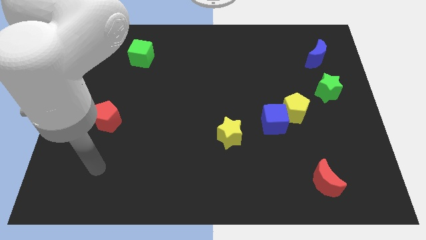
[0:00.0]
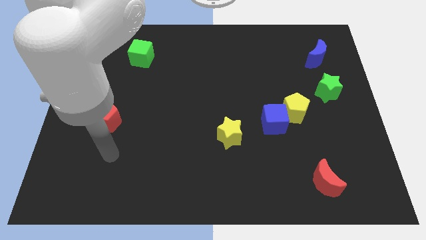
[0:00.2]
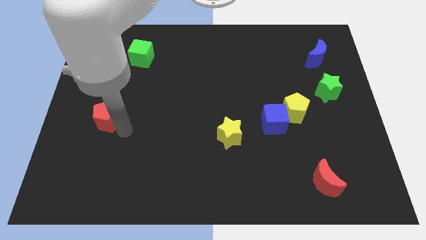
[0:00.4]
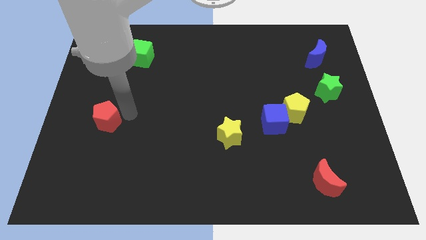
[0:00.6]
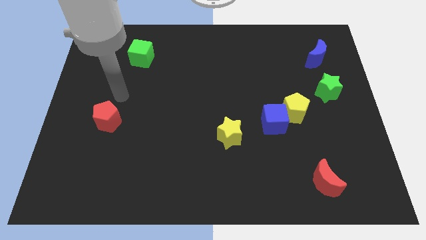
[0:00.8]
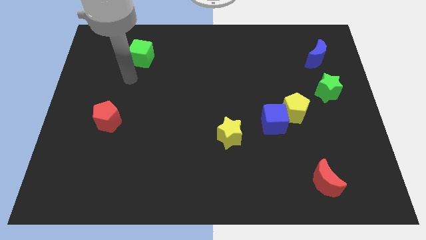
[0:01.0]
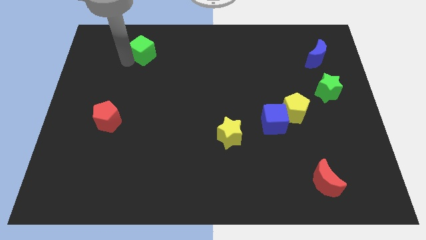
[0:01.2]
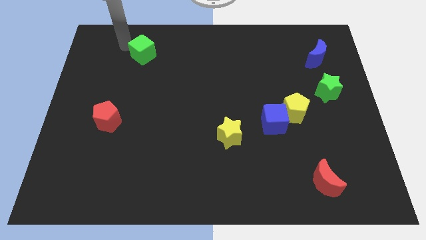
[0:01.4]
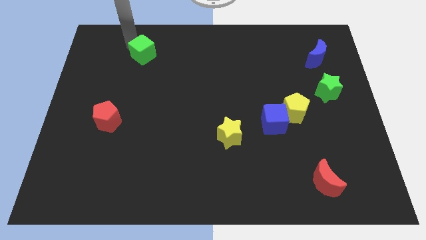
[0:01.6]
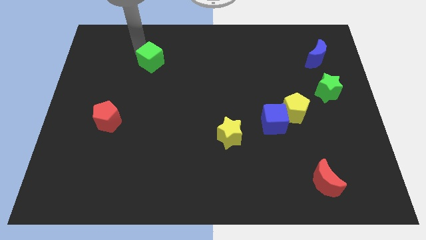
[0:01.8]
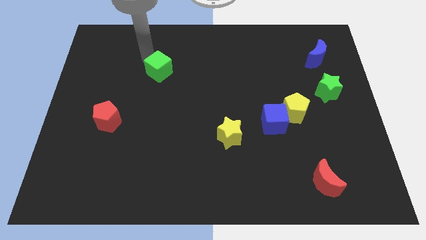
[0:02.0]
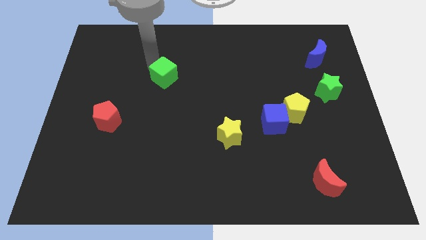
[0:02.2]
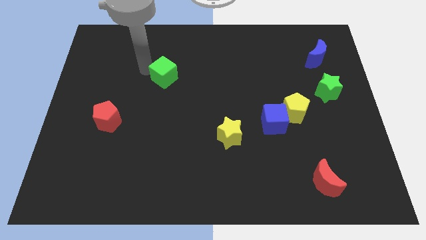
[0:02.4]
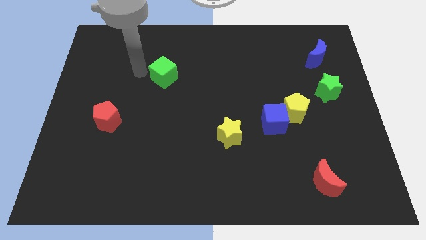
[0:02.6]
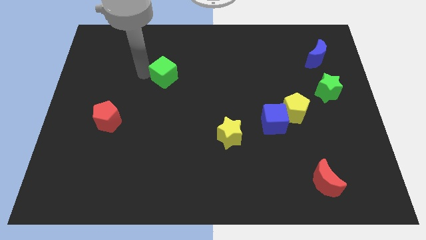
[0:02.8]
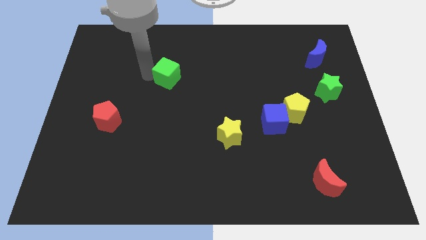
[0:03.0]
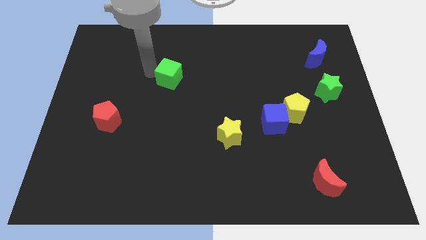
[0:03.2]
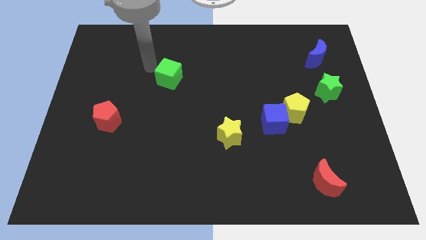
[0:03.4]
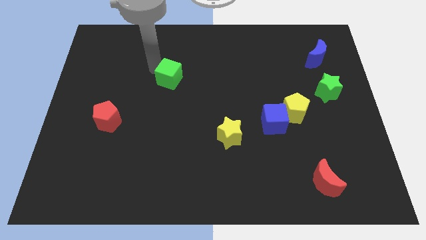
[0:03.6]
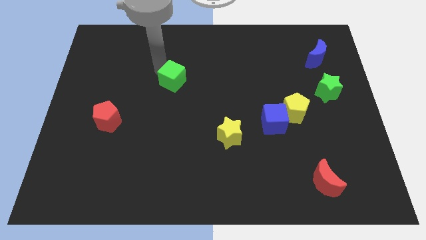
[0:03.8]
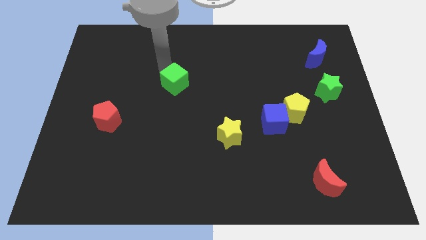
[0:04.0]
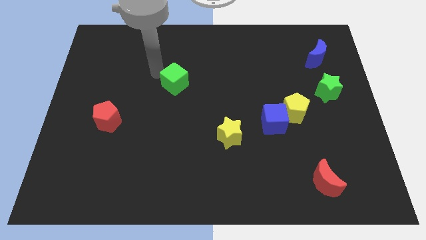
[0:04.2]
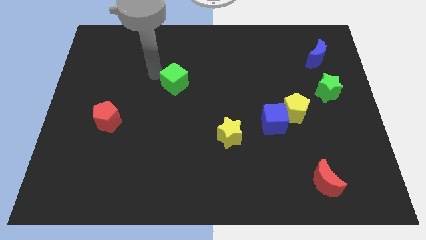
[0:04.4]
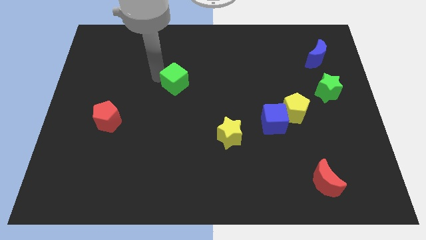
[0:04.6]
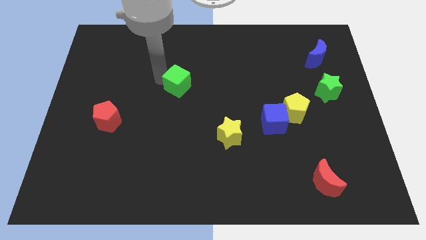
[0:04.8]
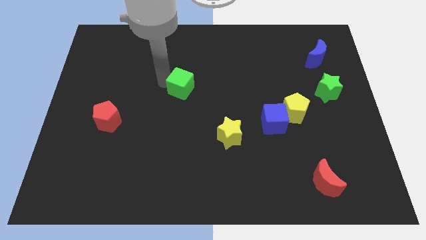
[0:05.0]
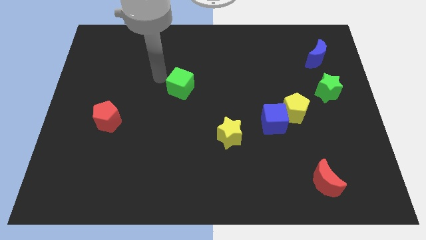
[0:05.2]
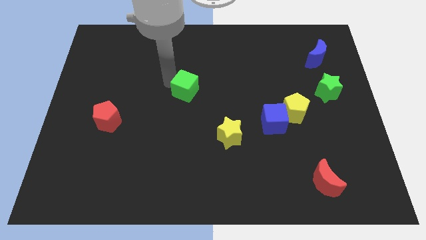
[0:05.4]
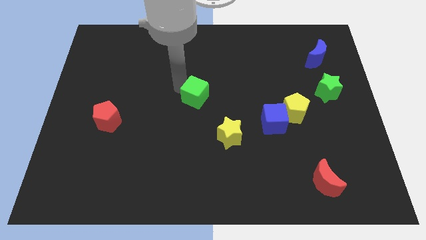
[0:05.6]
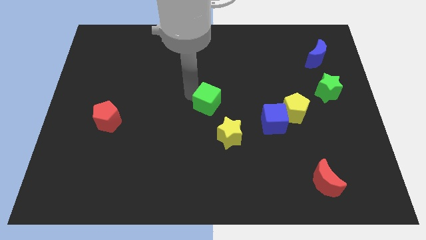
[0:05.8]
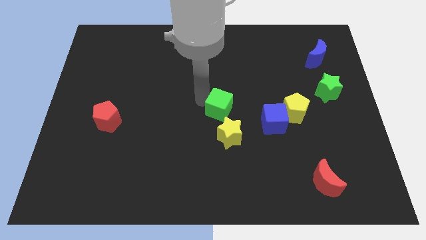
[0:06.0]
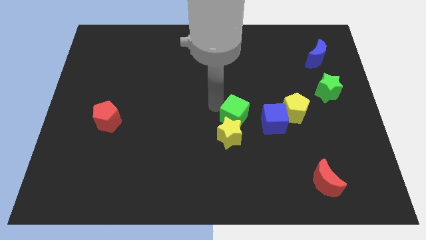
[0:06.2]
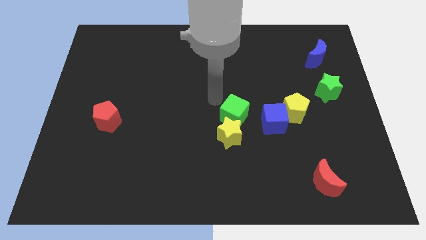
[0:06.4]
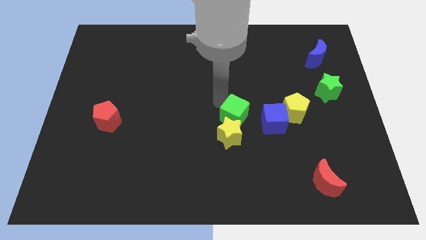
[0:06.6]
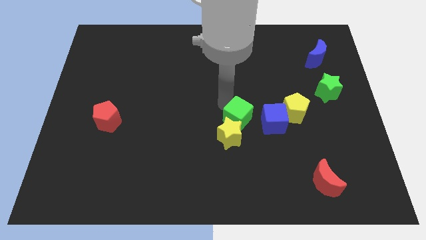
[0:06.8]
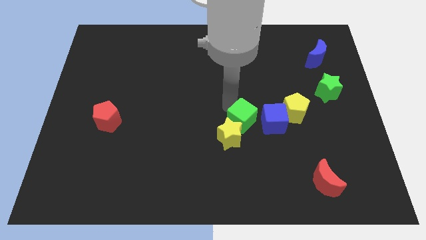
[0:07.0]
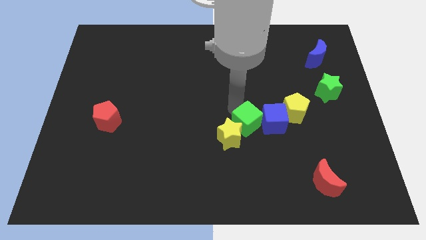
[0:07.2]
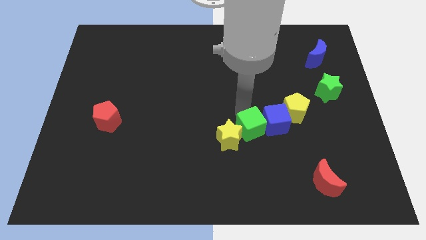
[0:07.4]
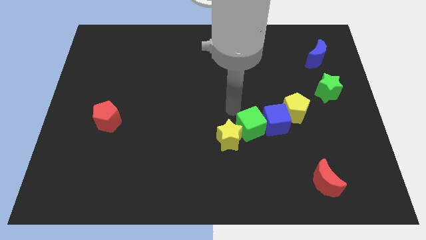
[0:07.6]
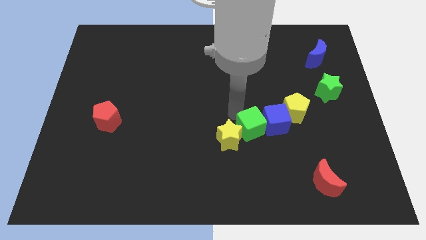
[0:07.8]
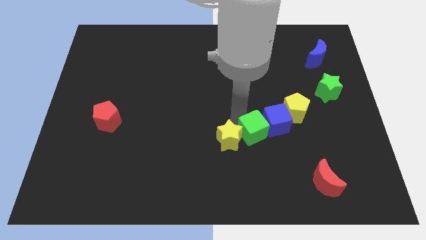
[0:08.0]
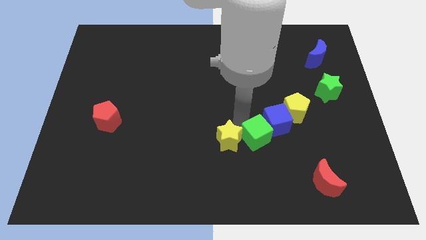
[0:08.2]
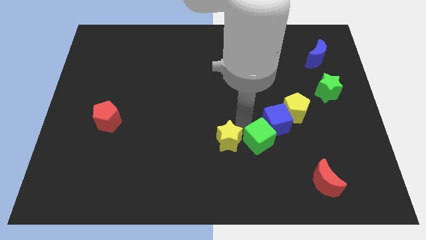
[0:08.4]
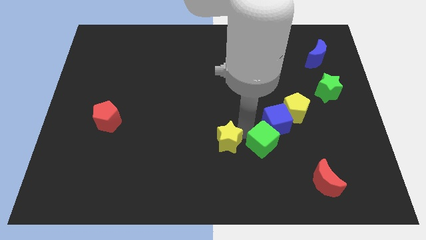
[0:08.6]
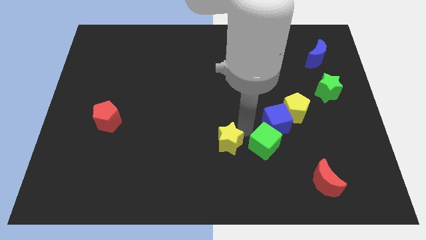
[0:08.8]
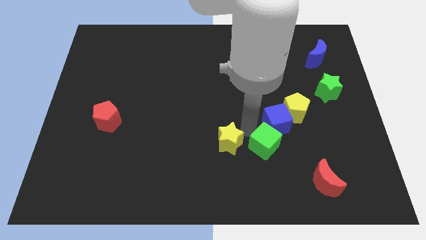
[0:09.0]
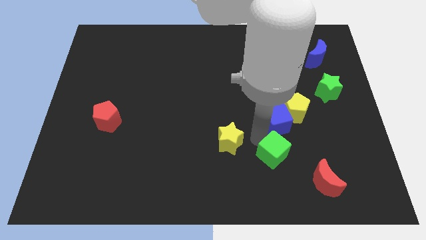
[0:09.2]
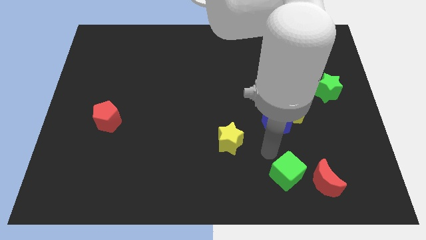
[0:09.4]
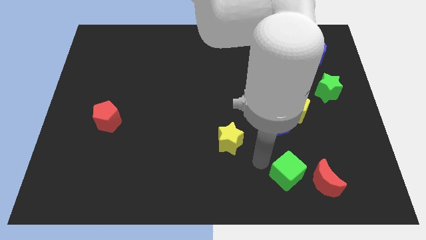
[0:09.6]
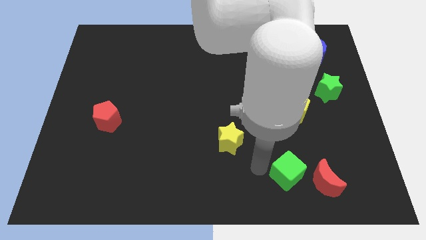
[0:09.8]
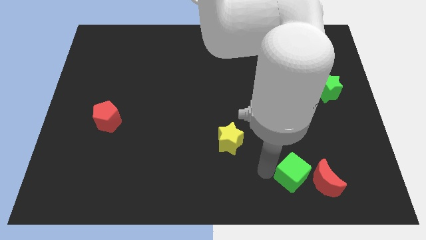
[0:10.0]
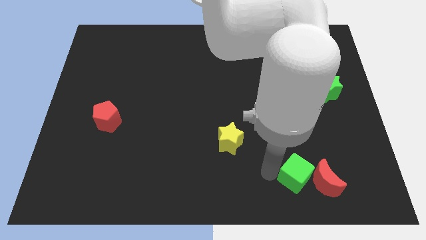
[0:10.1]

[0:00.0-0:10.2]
put the green cube next to the red moon

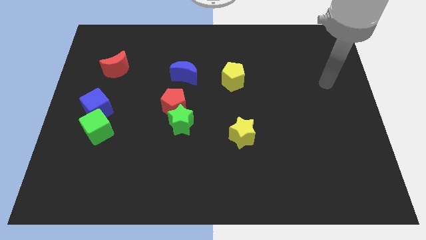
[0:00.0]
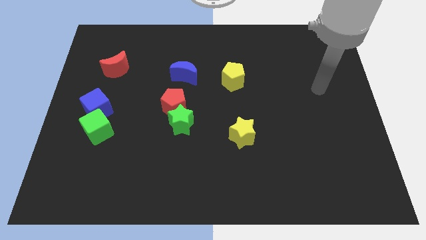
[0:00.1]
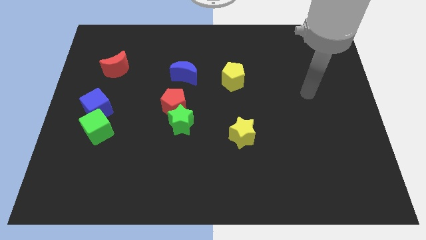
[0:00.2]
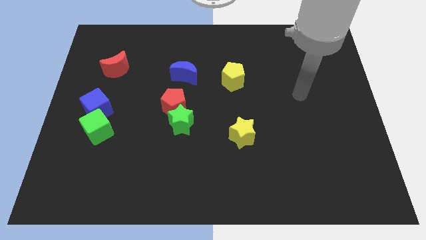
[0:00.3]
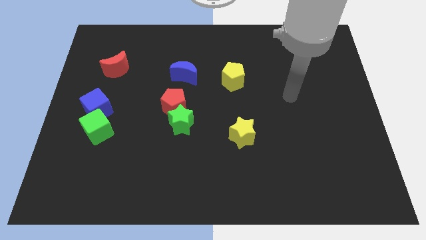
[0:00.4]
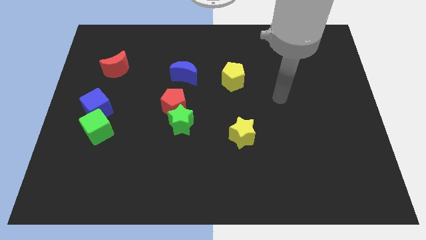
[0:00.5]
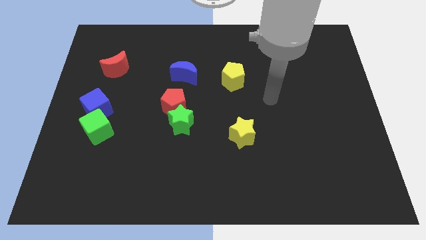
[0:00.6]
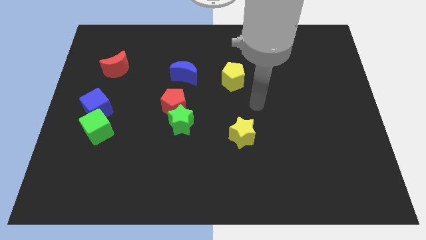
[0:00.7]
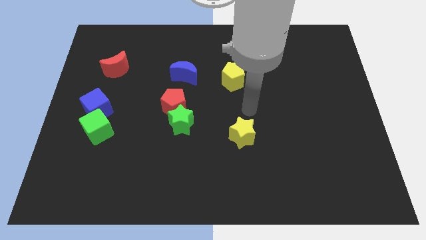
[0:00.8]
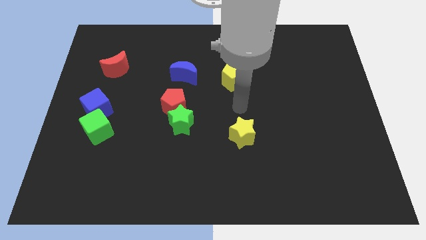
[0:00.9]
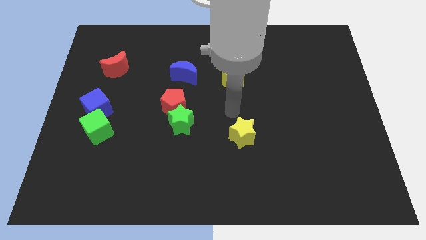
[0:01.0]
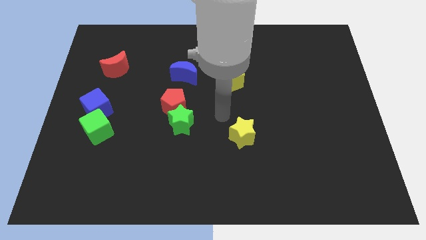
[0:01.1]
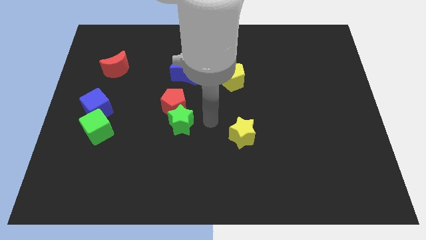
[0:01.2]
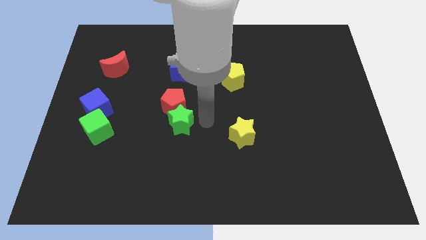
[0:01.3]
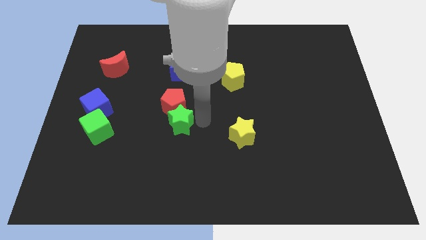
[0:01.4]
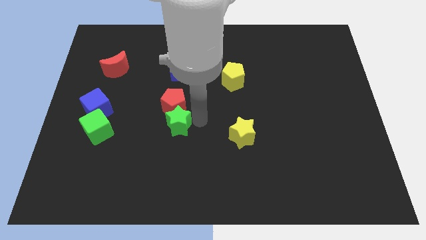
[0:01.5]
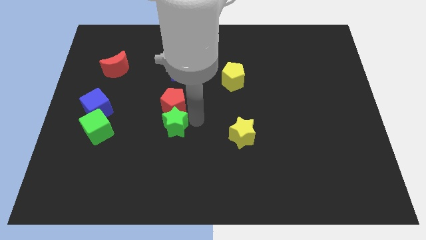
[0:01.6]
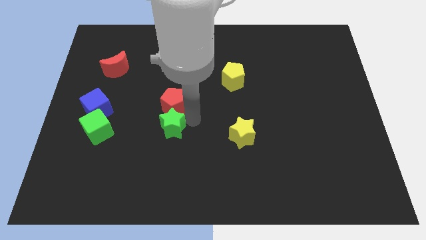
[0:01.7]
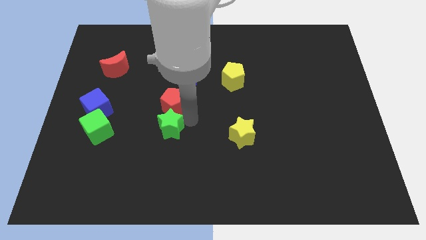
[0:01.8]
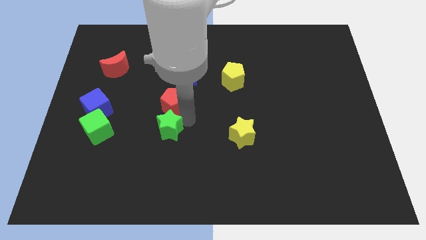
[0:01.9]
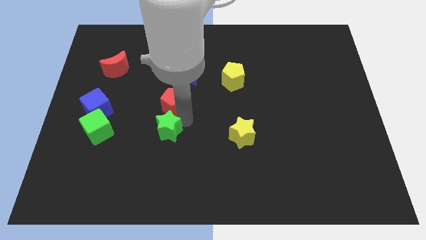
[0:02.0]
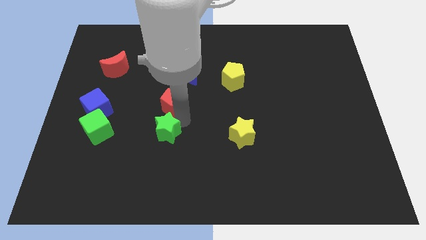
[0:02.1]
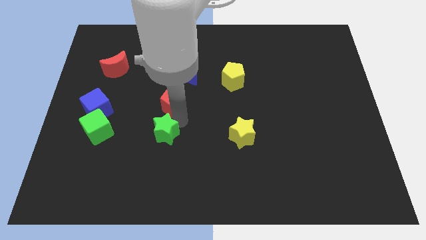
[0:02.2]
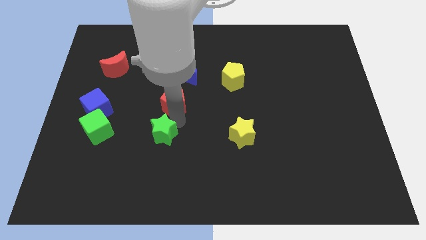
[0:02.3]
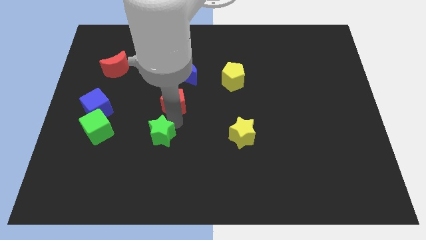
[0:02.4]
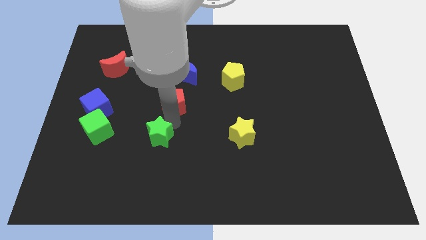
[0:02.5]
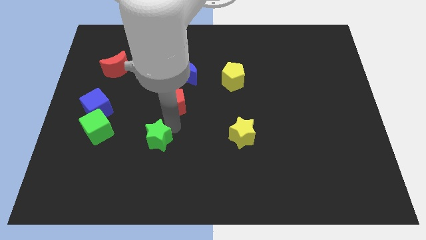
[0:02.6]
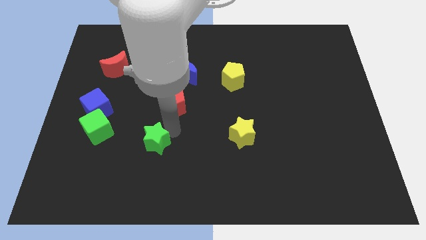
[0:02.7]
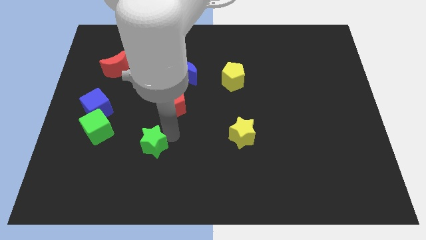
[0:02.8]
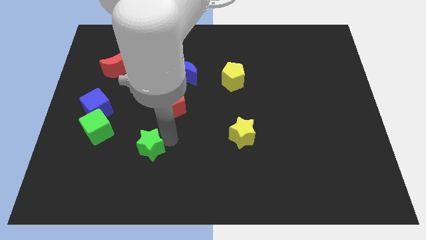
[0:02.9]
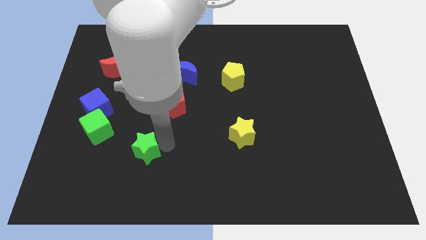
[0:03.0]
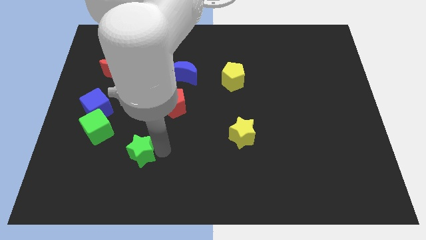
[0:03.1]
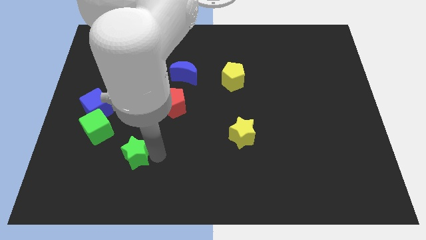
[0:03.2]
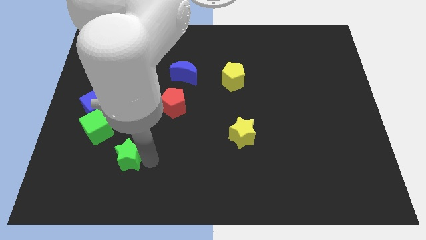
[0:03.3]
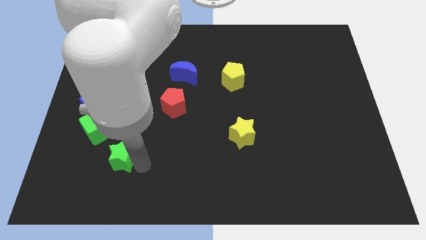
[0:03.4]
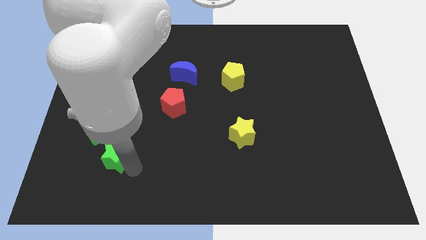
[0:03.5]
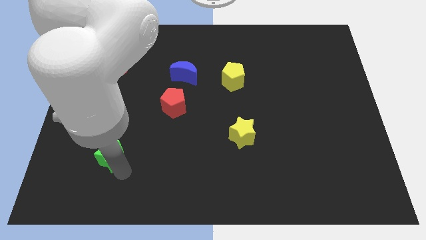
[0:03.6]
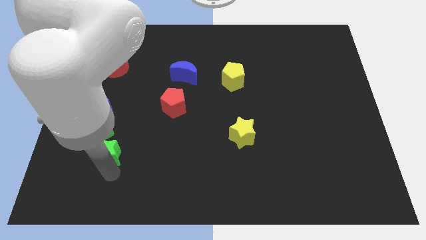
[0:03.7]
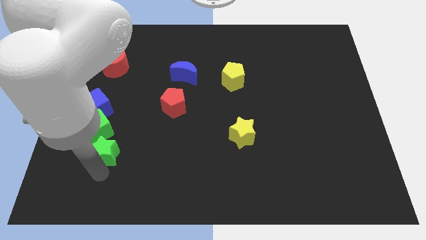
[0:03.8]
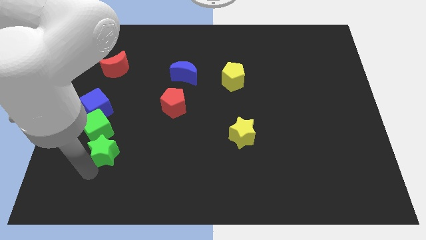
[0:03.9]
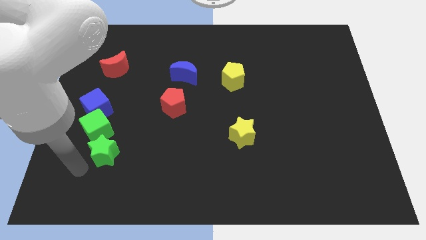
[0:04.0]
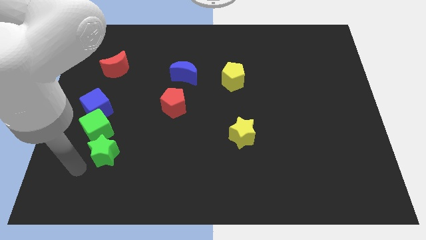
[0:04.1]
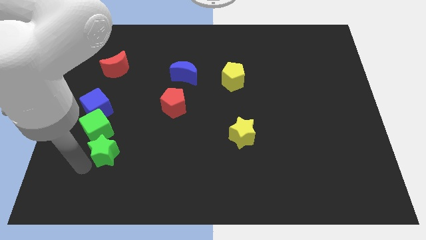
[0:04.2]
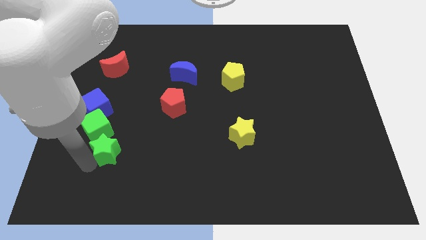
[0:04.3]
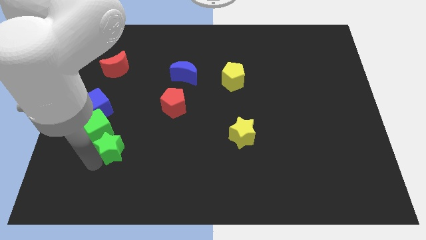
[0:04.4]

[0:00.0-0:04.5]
push the green star towards the green cube
